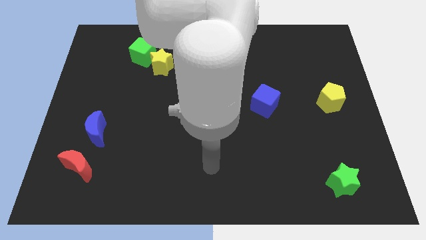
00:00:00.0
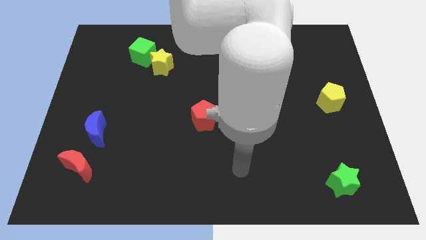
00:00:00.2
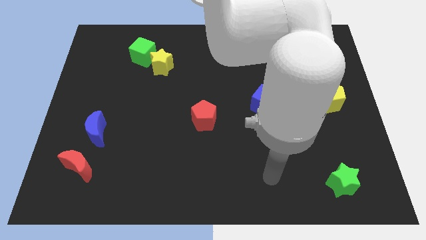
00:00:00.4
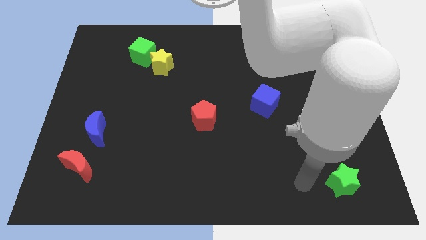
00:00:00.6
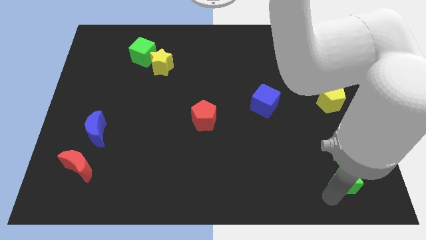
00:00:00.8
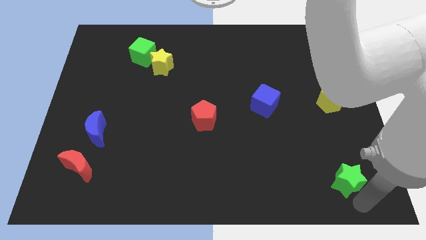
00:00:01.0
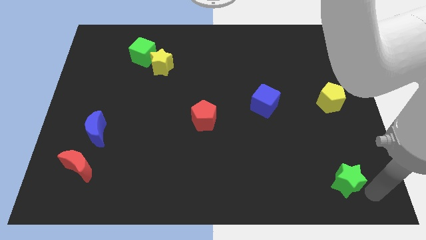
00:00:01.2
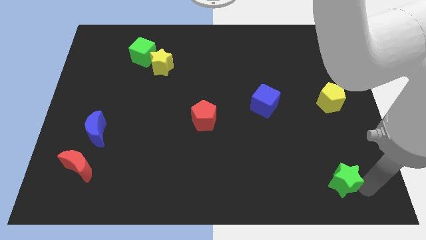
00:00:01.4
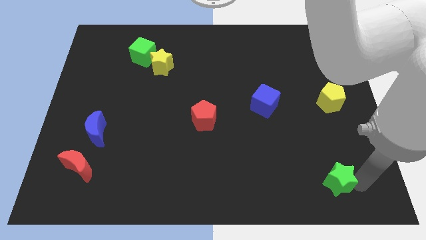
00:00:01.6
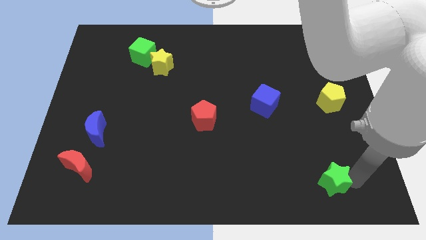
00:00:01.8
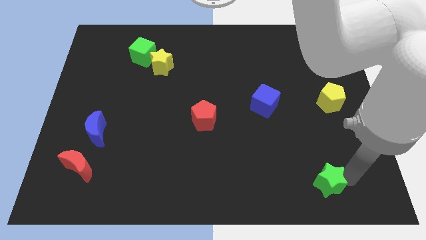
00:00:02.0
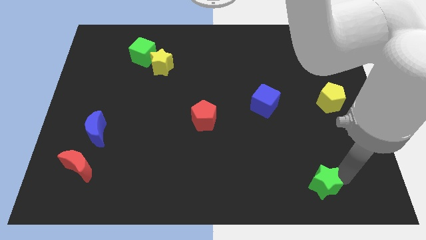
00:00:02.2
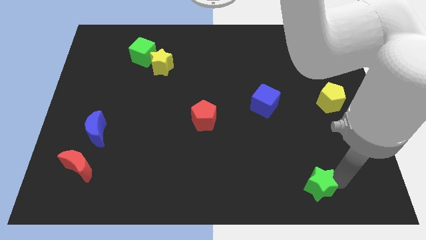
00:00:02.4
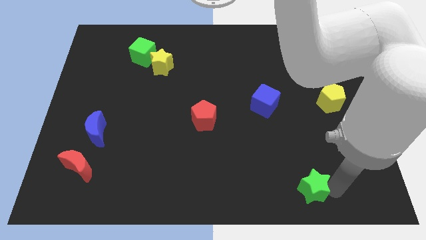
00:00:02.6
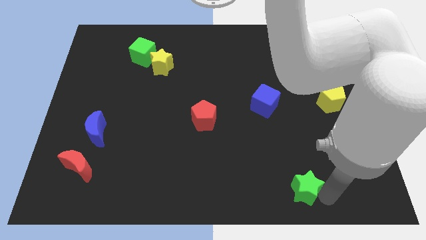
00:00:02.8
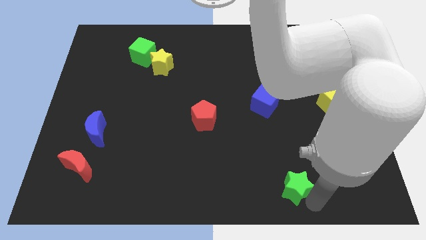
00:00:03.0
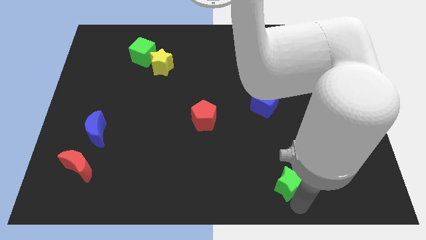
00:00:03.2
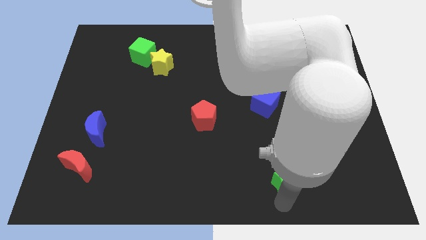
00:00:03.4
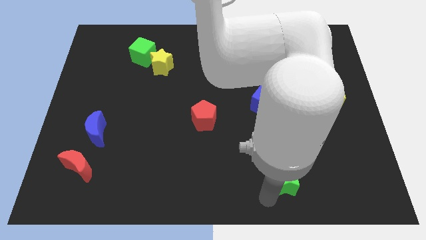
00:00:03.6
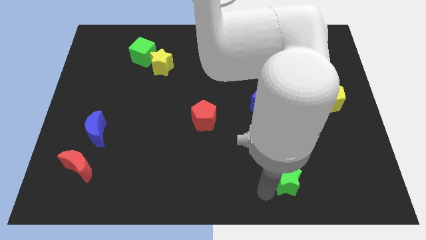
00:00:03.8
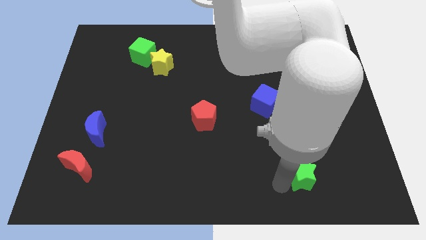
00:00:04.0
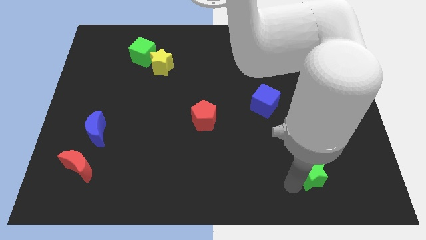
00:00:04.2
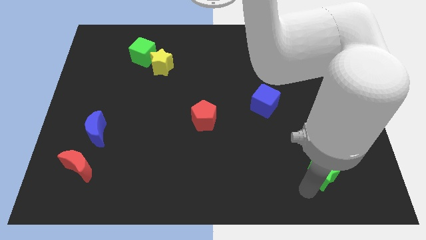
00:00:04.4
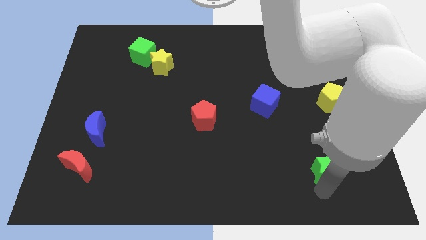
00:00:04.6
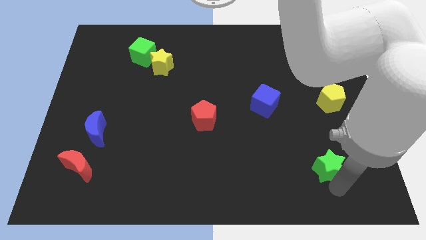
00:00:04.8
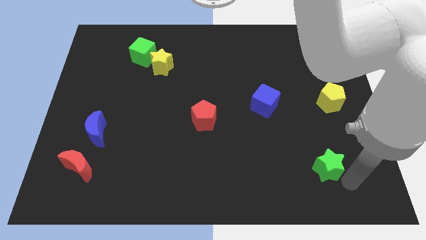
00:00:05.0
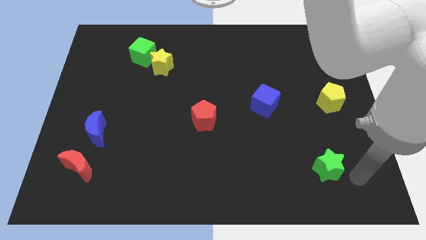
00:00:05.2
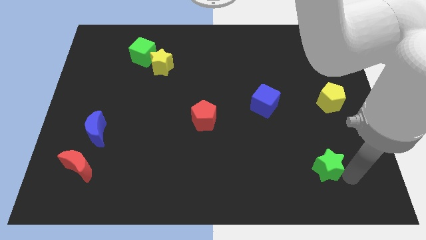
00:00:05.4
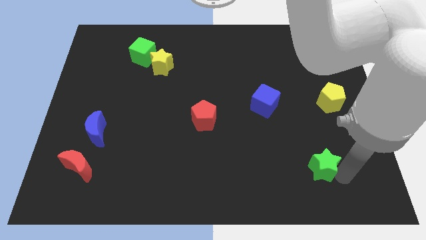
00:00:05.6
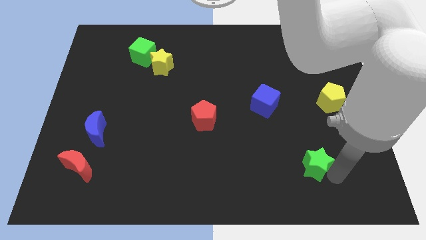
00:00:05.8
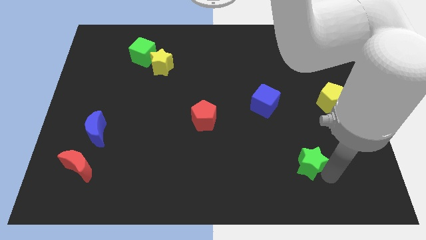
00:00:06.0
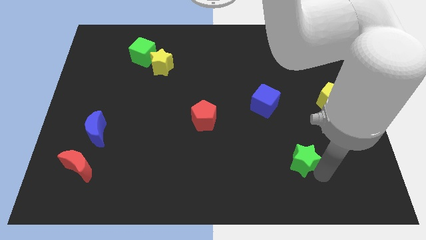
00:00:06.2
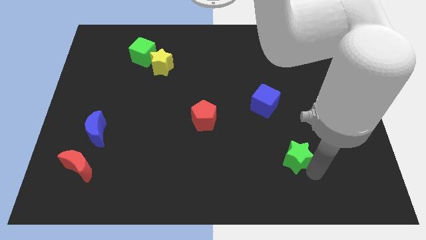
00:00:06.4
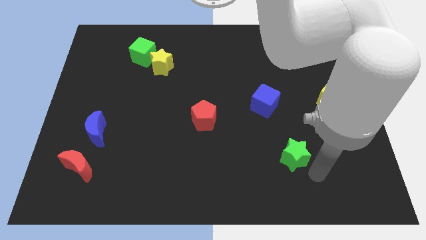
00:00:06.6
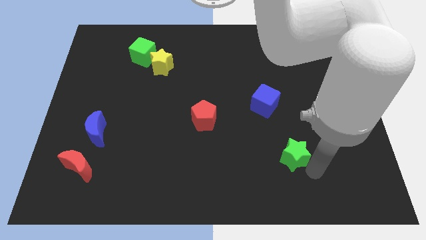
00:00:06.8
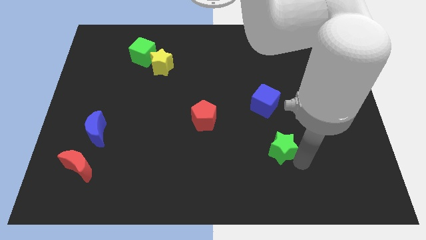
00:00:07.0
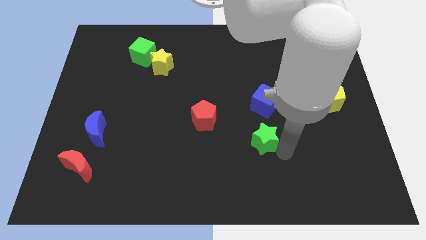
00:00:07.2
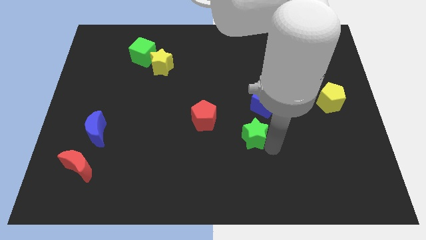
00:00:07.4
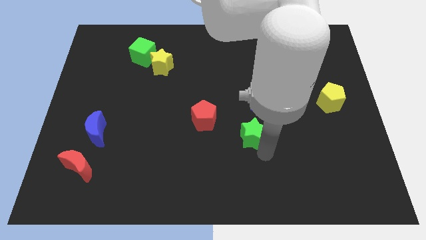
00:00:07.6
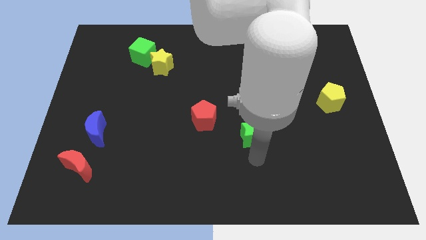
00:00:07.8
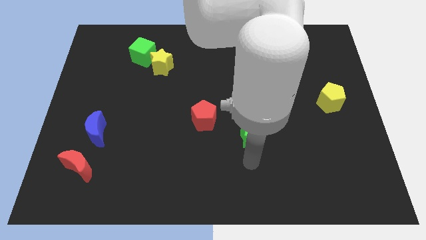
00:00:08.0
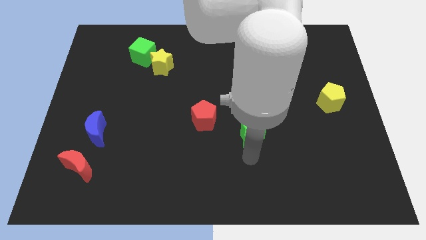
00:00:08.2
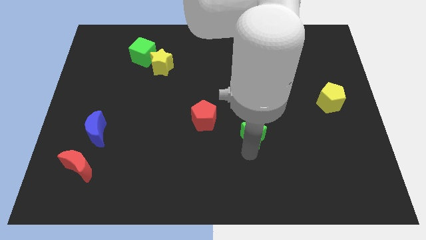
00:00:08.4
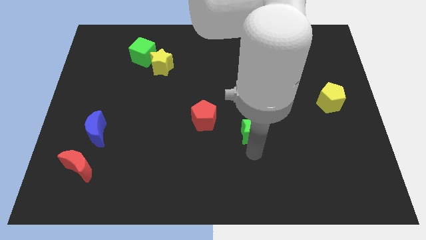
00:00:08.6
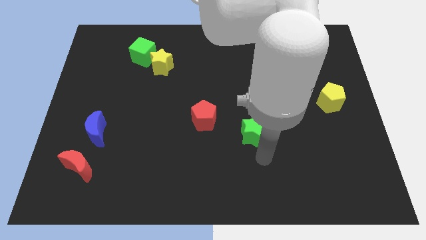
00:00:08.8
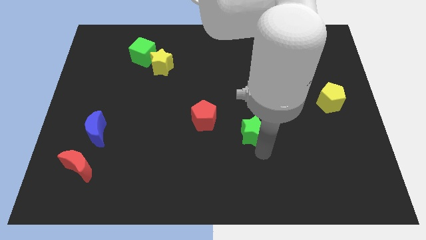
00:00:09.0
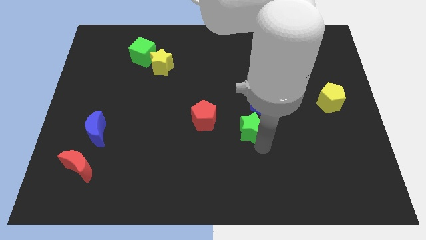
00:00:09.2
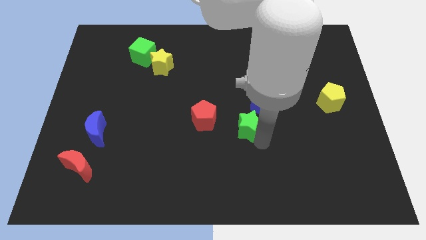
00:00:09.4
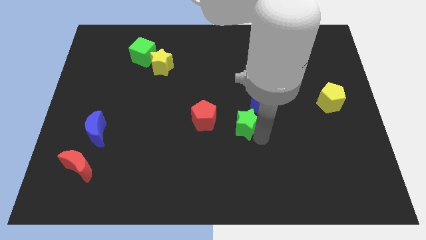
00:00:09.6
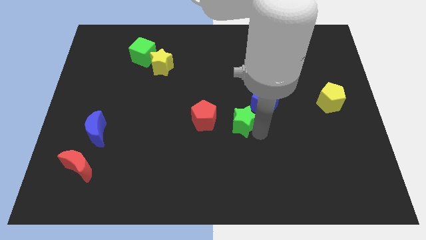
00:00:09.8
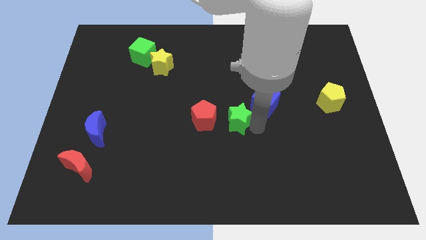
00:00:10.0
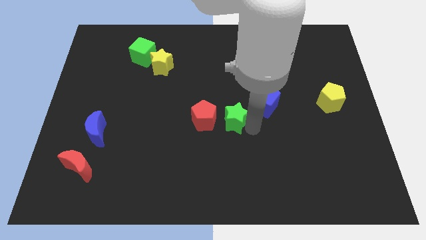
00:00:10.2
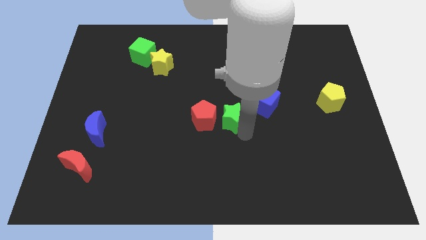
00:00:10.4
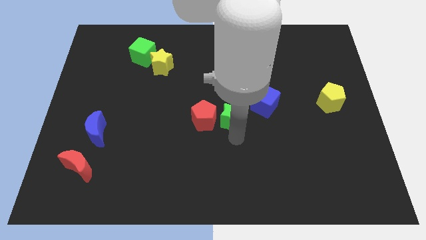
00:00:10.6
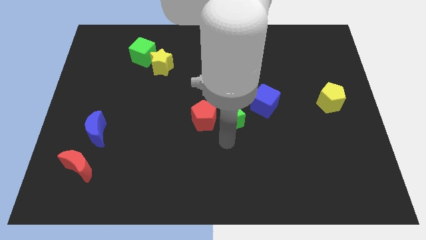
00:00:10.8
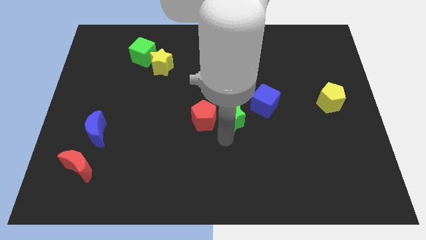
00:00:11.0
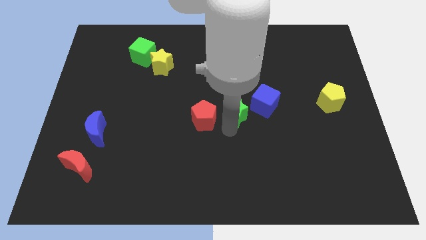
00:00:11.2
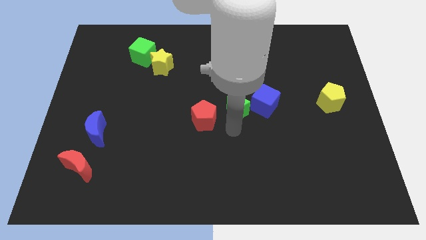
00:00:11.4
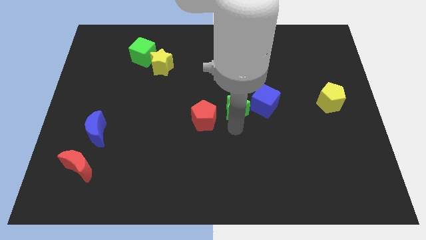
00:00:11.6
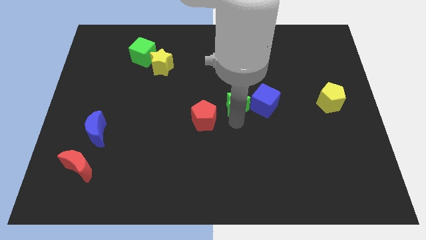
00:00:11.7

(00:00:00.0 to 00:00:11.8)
push the green star to the top left of the blue cube

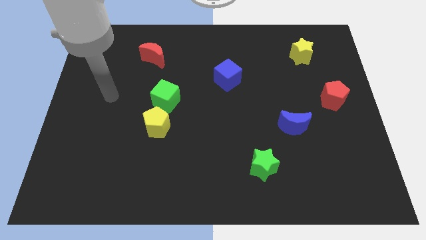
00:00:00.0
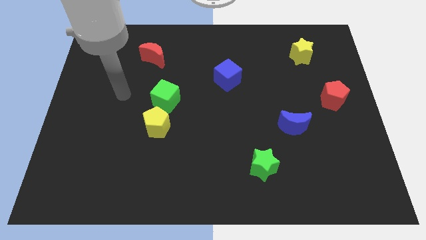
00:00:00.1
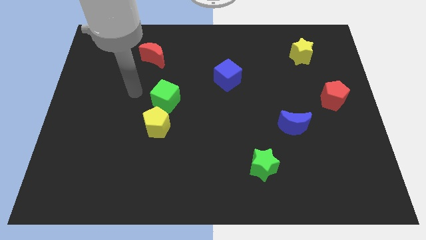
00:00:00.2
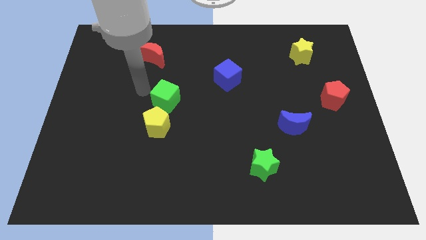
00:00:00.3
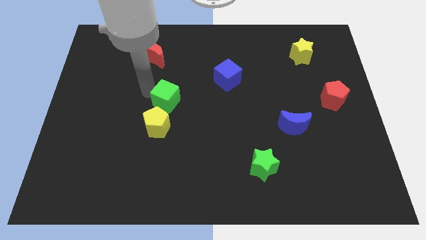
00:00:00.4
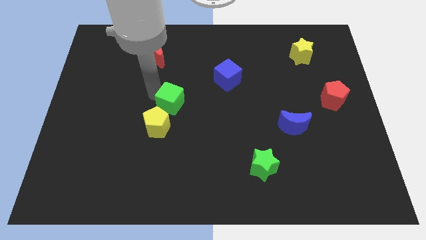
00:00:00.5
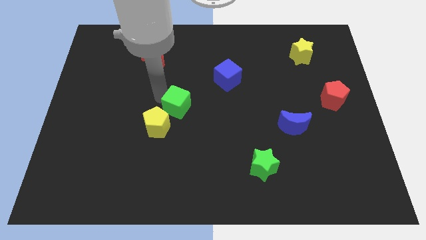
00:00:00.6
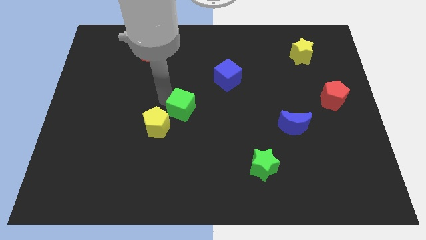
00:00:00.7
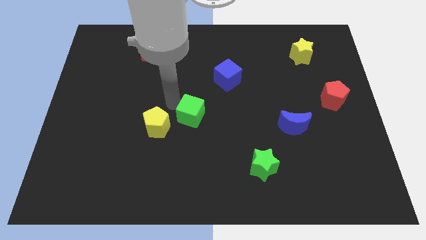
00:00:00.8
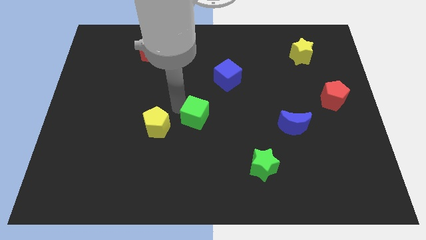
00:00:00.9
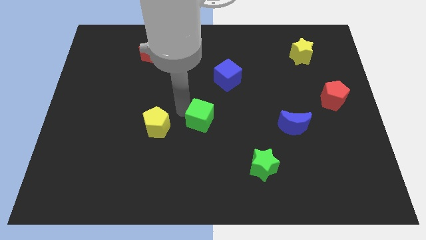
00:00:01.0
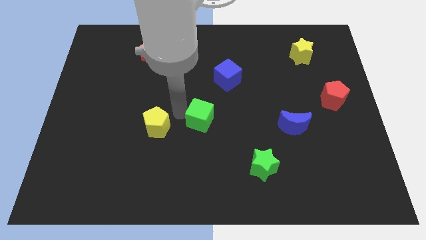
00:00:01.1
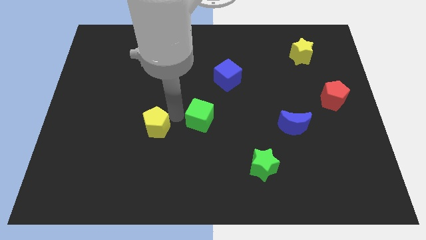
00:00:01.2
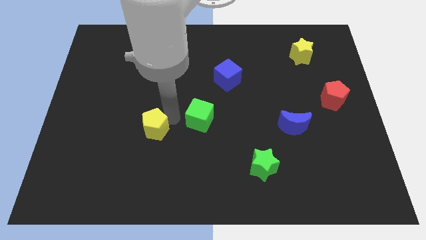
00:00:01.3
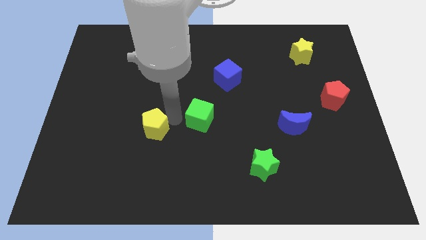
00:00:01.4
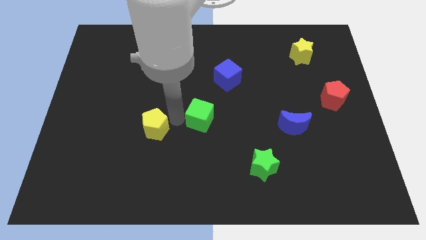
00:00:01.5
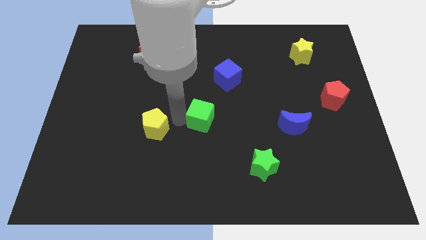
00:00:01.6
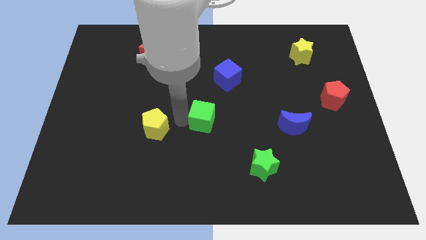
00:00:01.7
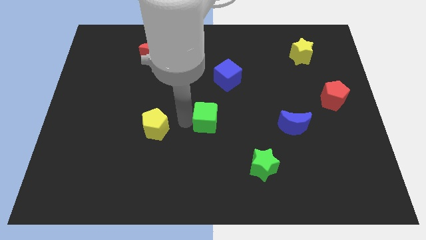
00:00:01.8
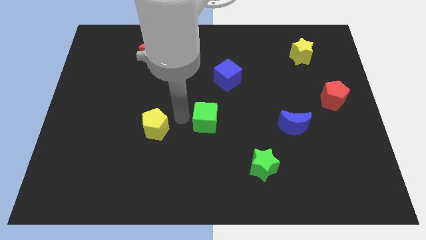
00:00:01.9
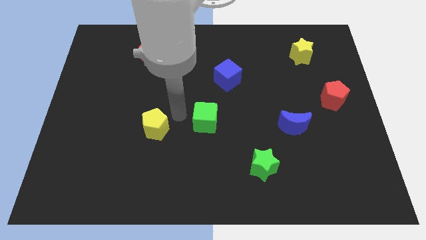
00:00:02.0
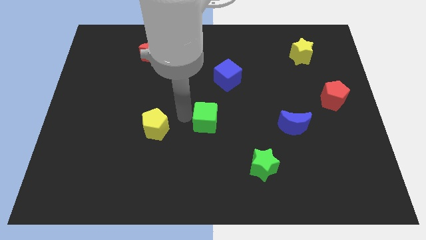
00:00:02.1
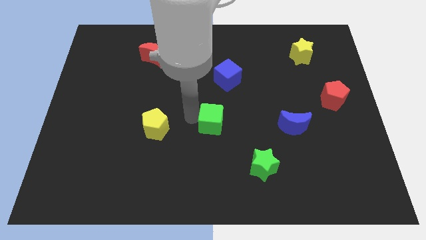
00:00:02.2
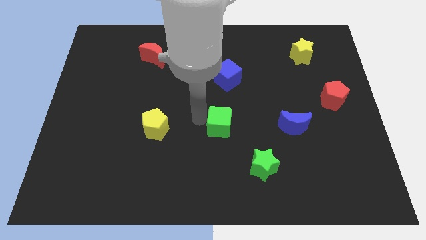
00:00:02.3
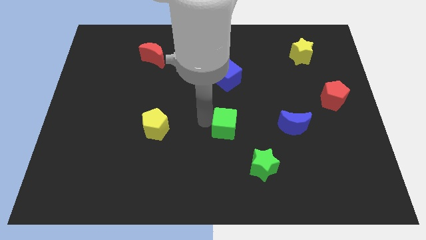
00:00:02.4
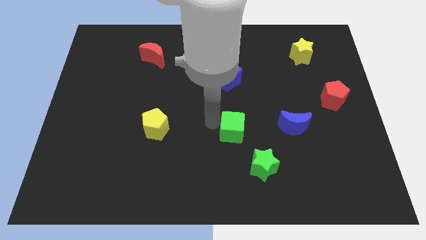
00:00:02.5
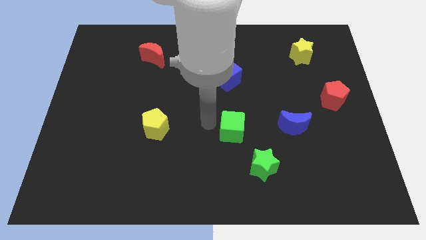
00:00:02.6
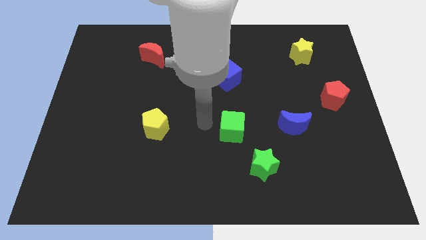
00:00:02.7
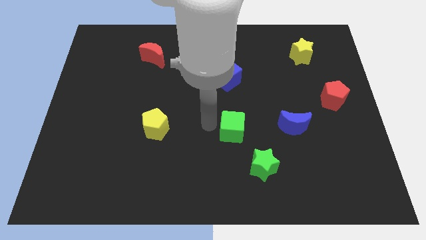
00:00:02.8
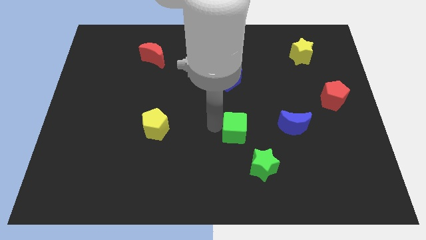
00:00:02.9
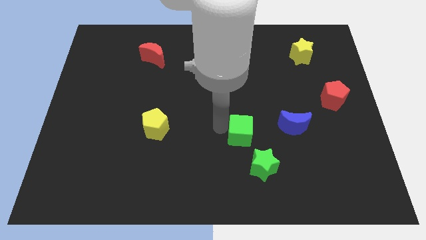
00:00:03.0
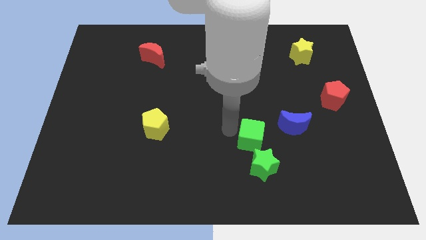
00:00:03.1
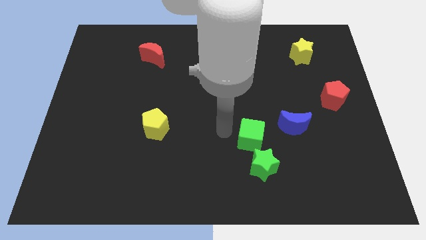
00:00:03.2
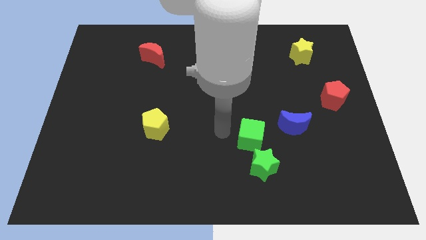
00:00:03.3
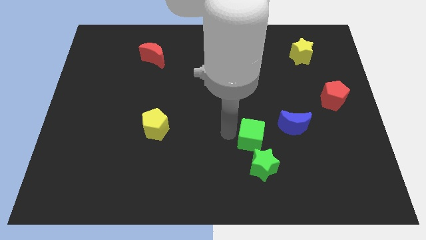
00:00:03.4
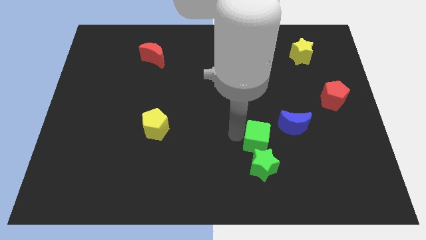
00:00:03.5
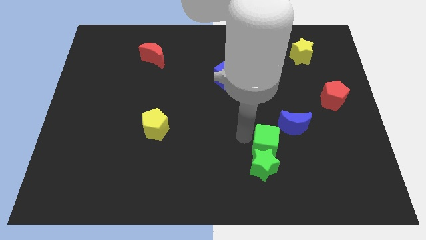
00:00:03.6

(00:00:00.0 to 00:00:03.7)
put the green cube diagonally up and to the right of the green star
